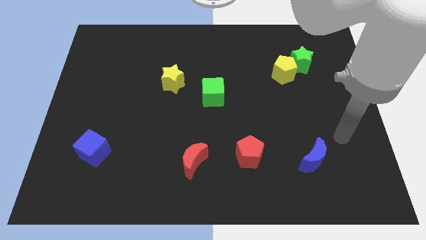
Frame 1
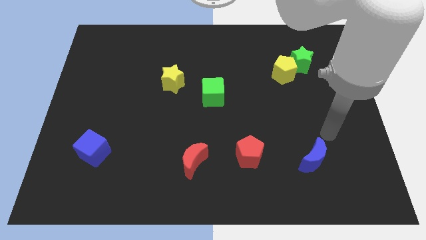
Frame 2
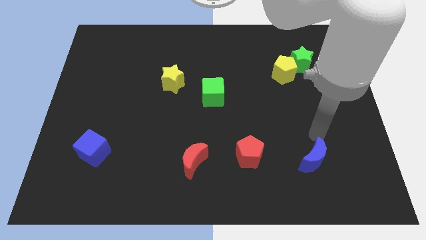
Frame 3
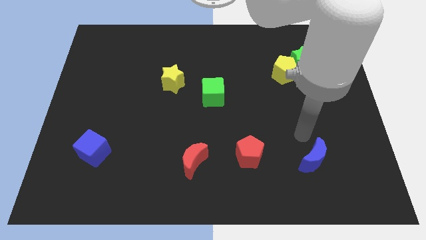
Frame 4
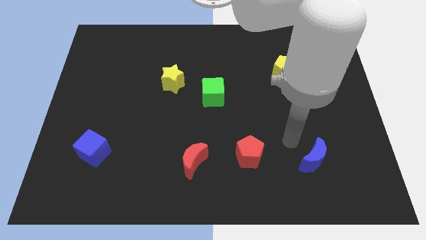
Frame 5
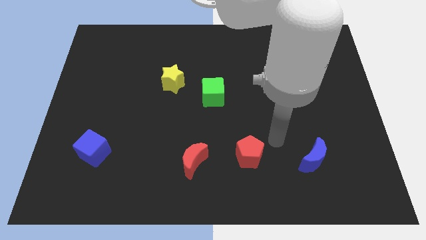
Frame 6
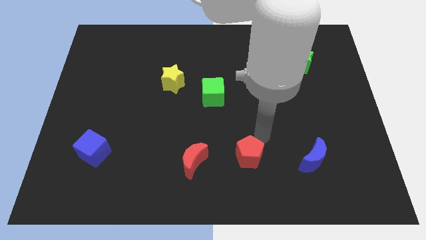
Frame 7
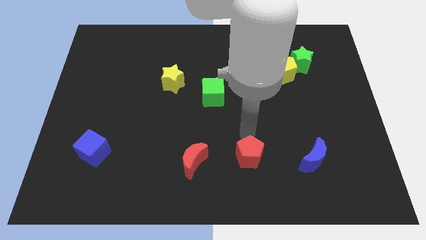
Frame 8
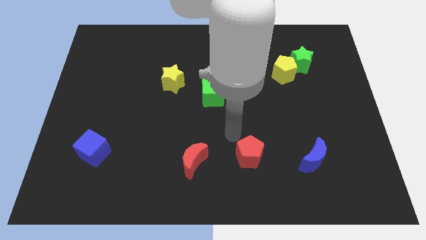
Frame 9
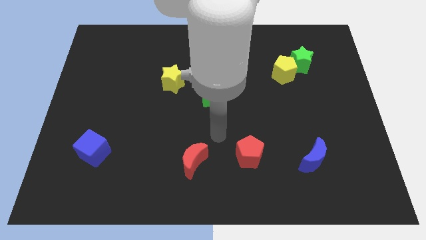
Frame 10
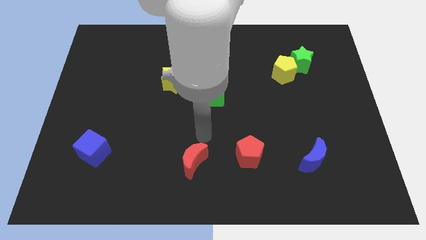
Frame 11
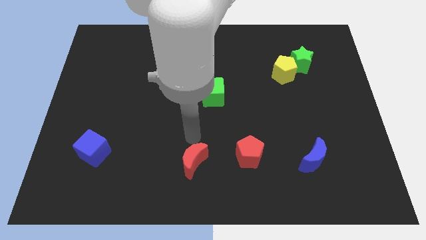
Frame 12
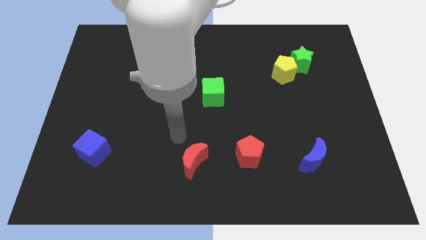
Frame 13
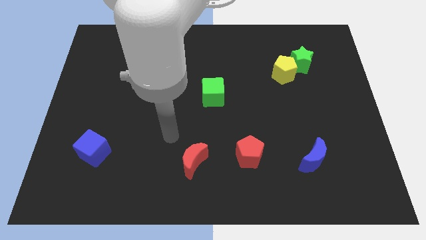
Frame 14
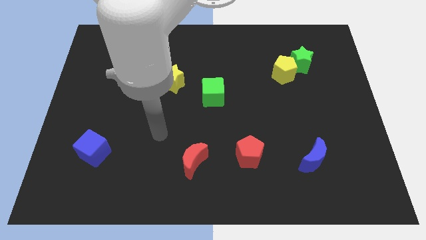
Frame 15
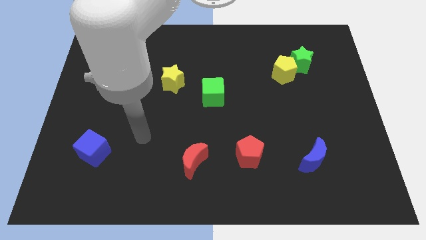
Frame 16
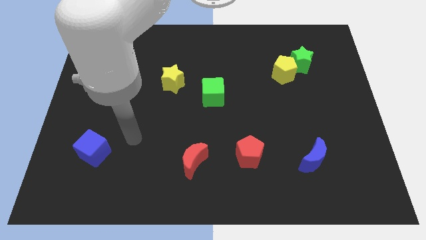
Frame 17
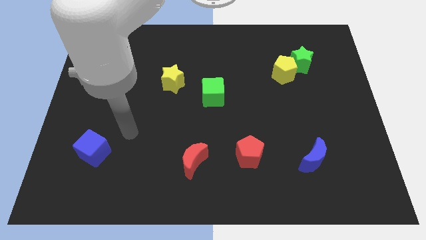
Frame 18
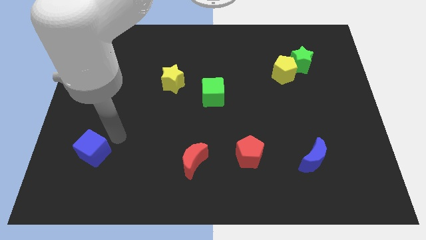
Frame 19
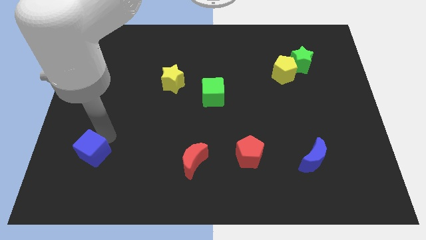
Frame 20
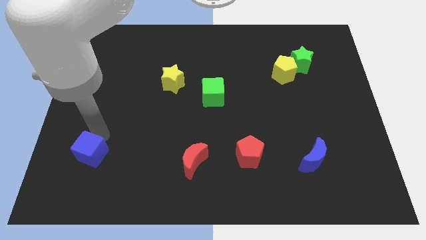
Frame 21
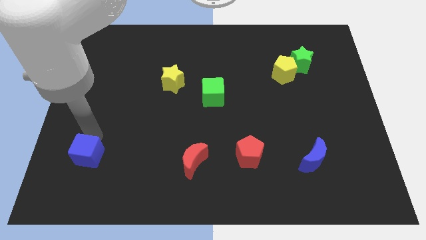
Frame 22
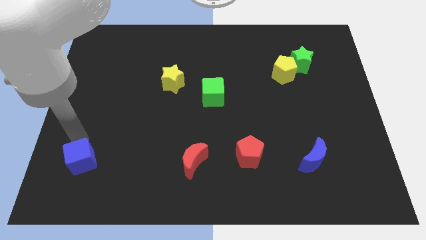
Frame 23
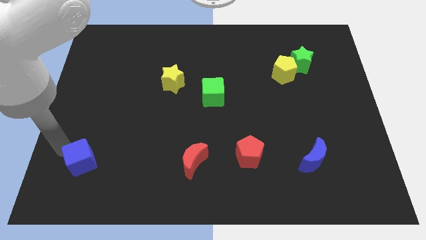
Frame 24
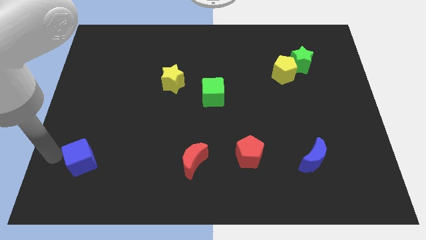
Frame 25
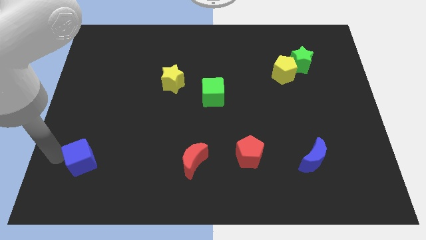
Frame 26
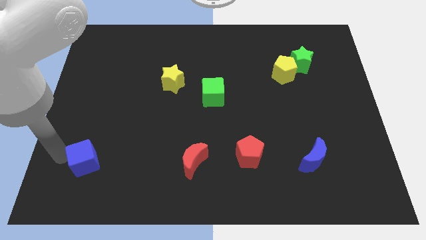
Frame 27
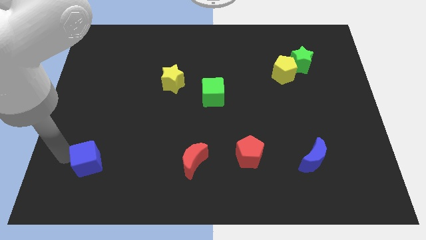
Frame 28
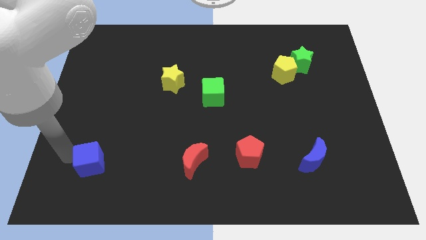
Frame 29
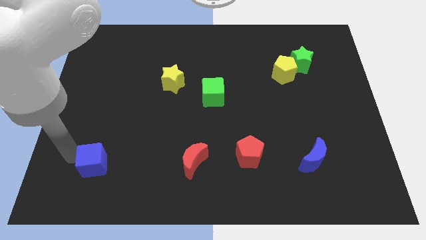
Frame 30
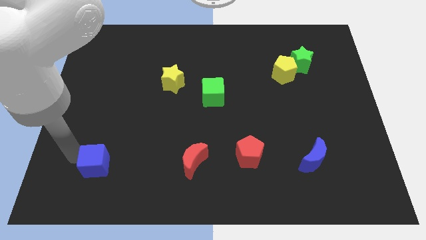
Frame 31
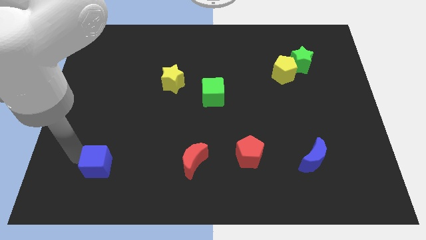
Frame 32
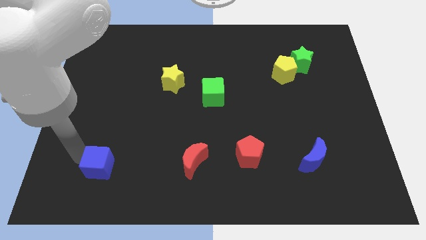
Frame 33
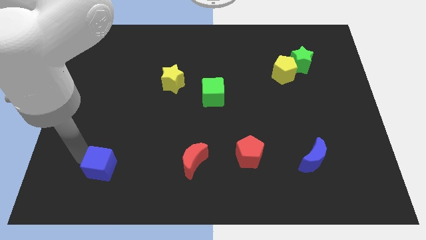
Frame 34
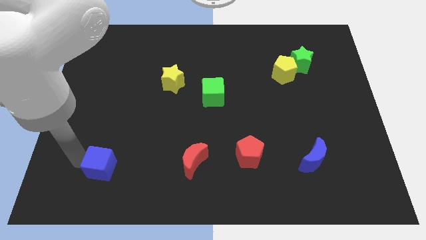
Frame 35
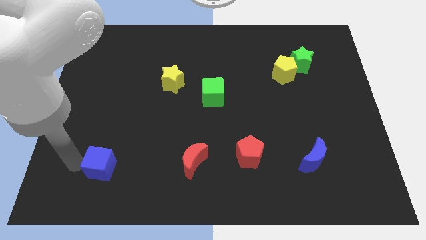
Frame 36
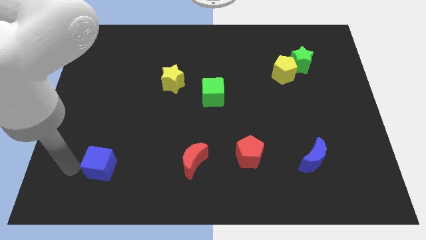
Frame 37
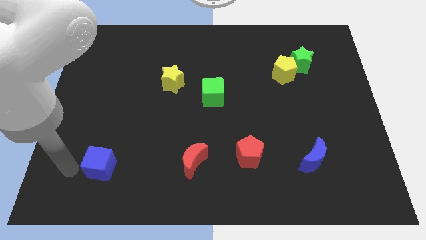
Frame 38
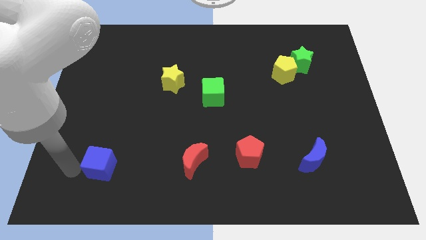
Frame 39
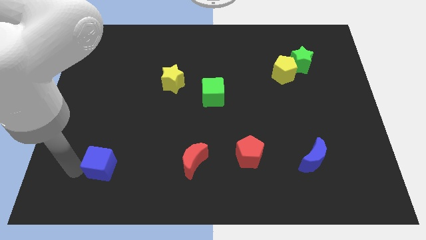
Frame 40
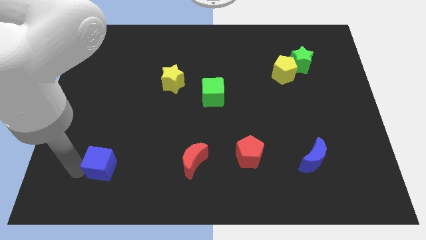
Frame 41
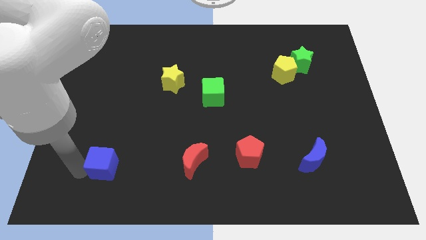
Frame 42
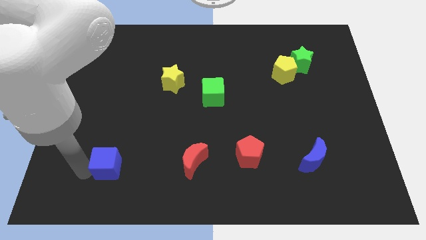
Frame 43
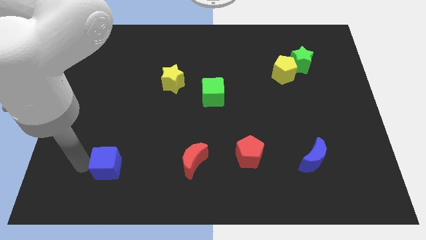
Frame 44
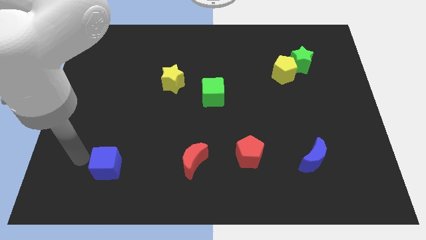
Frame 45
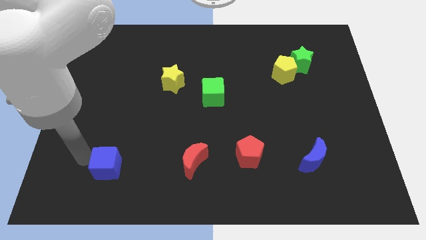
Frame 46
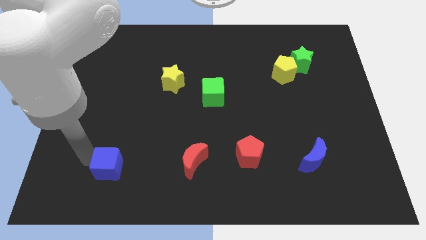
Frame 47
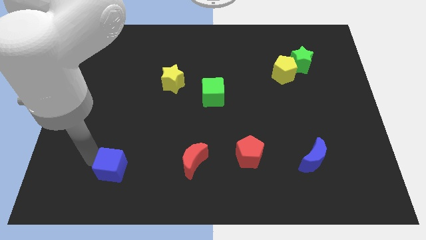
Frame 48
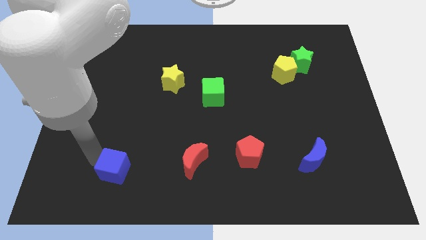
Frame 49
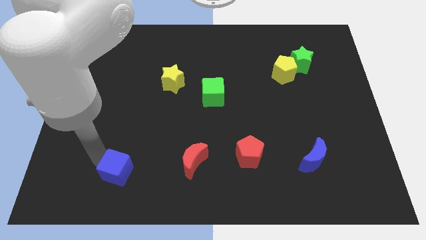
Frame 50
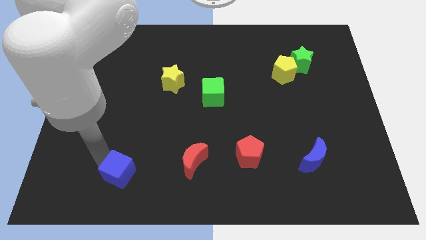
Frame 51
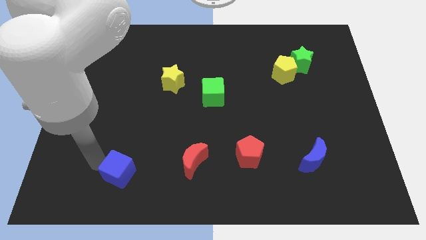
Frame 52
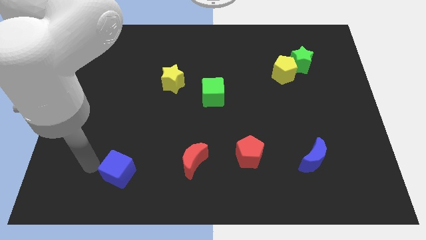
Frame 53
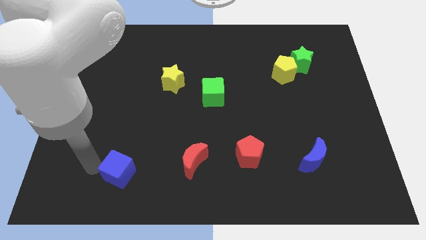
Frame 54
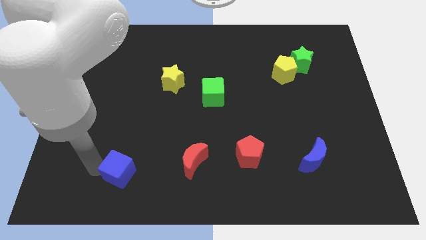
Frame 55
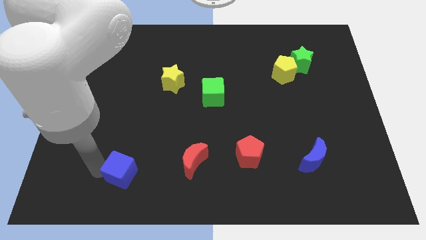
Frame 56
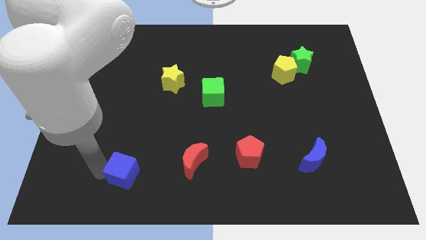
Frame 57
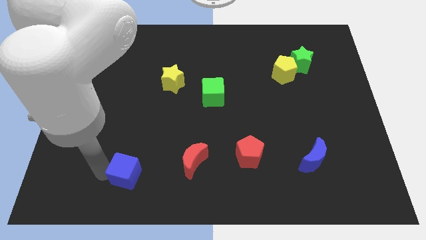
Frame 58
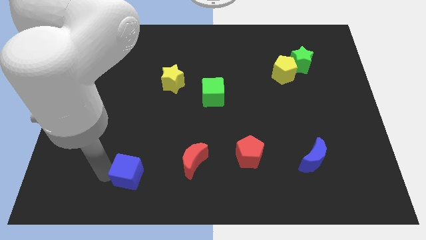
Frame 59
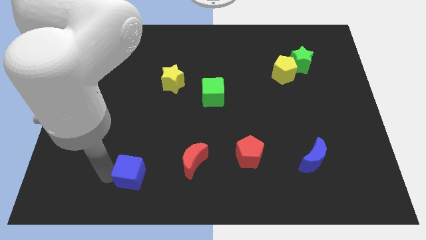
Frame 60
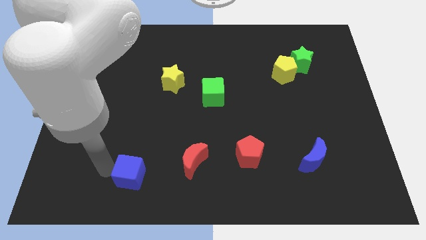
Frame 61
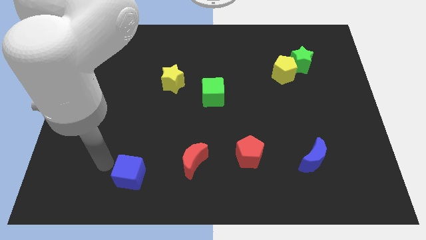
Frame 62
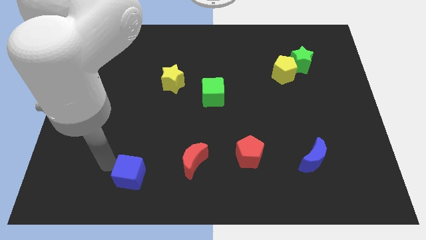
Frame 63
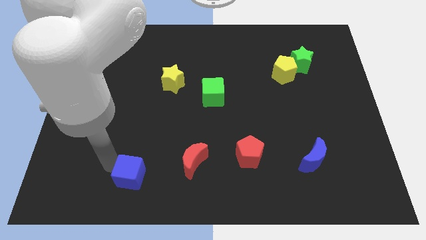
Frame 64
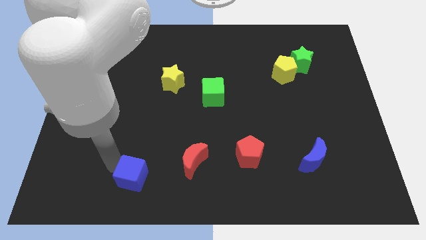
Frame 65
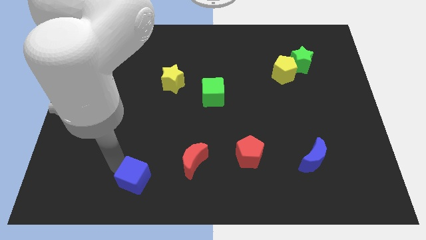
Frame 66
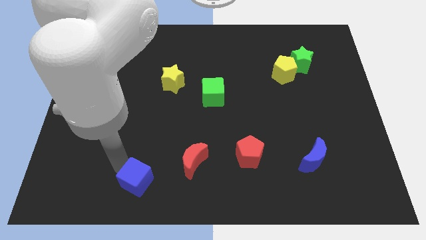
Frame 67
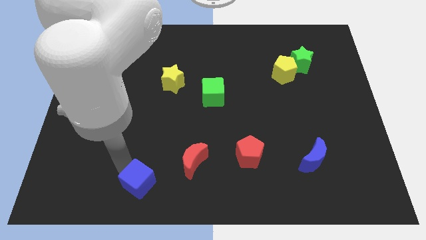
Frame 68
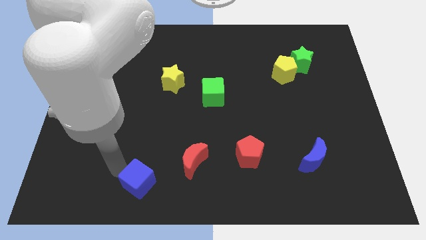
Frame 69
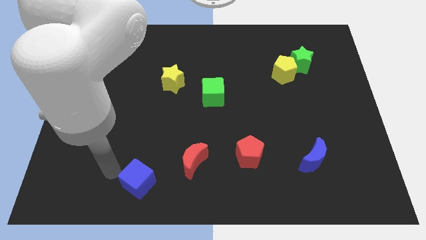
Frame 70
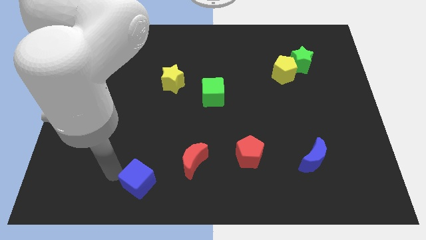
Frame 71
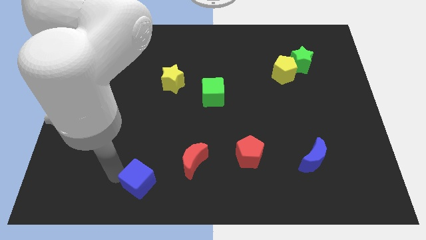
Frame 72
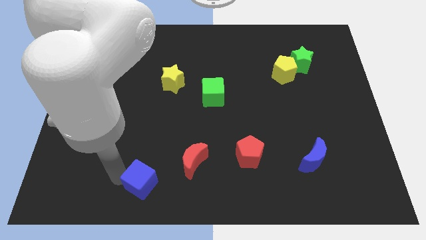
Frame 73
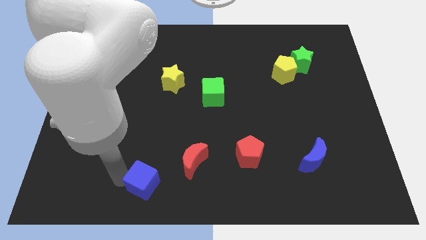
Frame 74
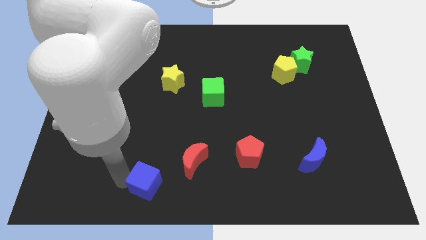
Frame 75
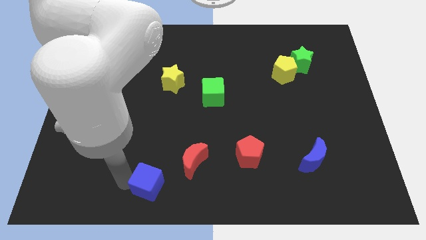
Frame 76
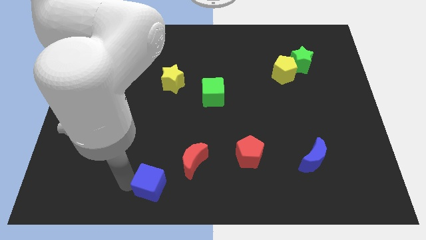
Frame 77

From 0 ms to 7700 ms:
push the blue cube to the bottom side
